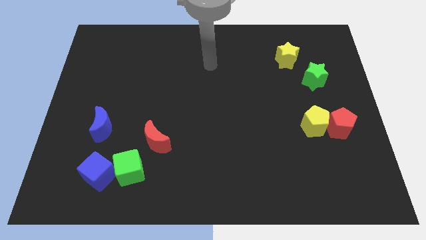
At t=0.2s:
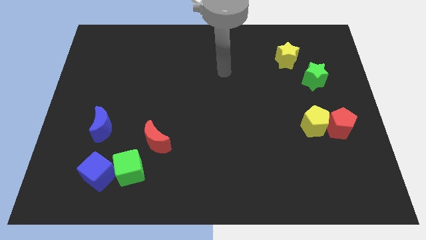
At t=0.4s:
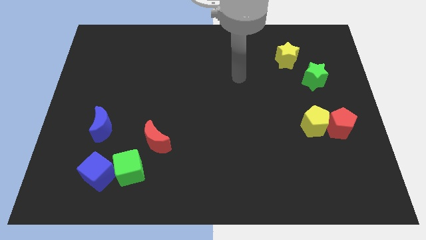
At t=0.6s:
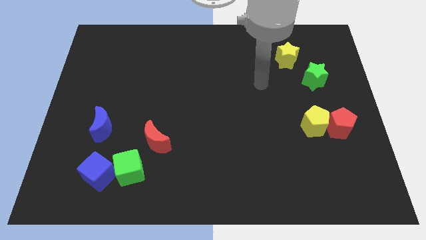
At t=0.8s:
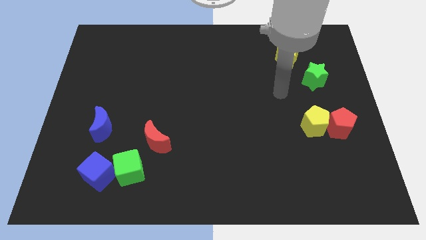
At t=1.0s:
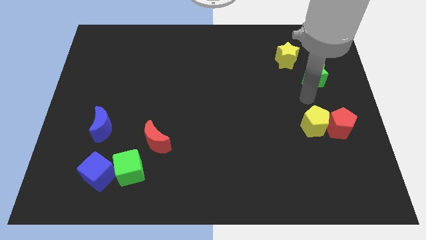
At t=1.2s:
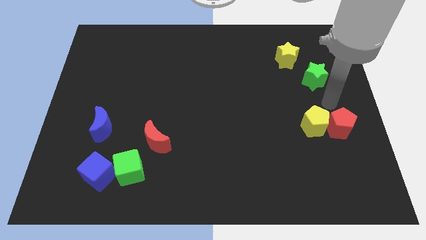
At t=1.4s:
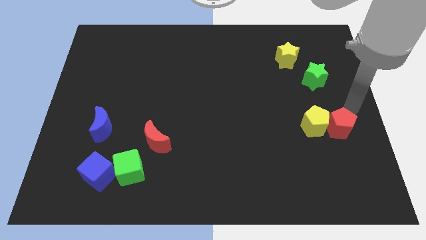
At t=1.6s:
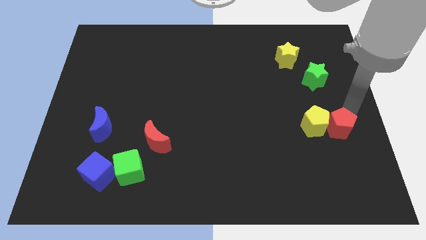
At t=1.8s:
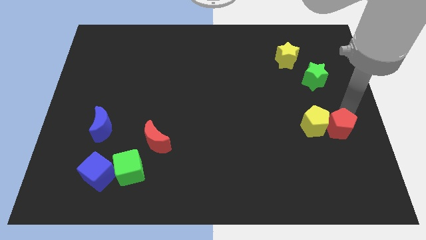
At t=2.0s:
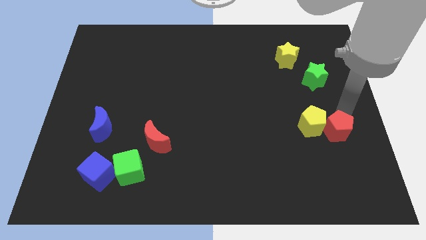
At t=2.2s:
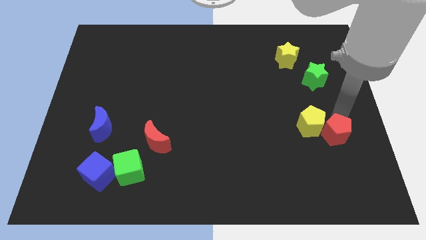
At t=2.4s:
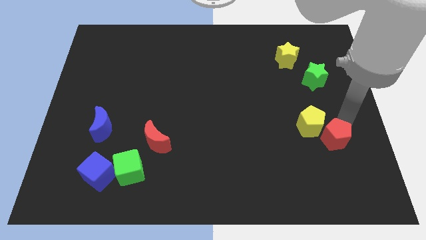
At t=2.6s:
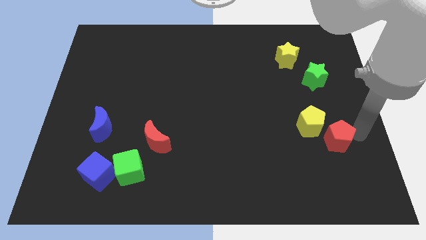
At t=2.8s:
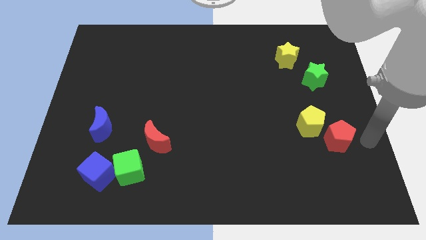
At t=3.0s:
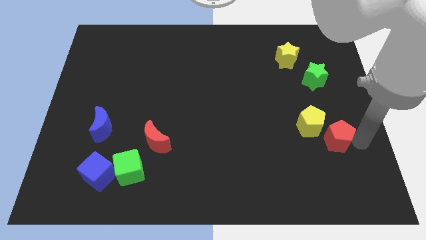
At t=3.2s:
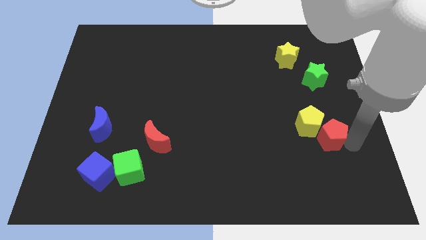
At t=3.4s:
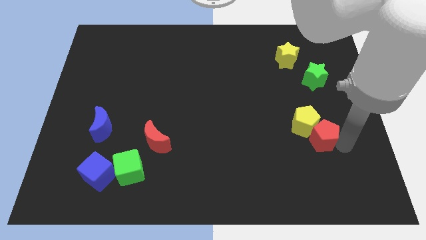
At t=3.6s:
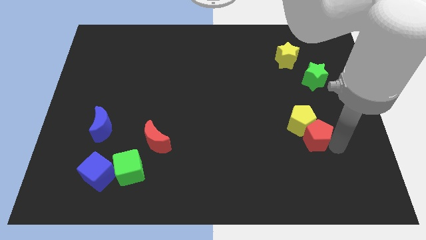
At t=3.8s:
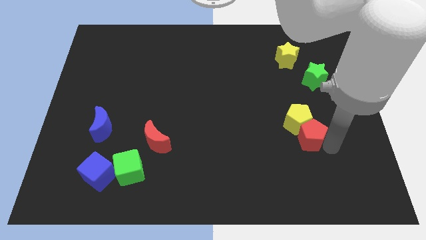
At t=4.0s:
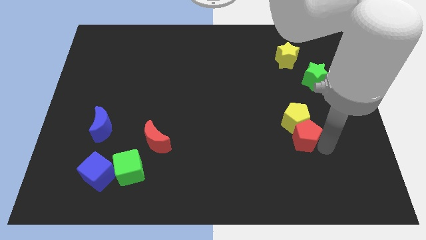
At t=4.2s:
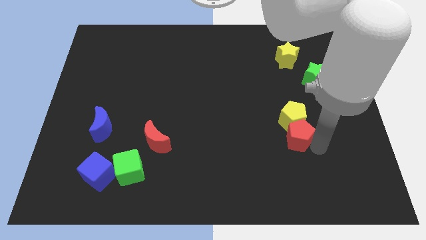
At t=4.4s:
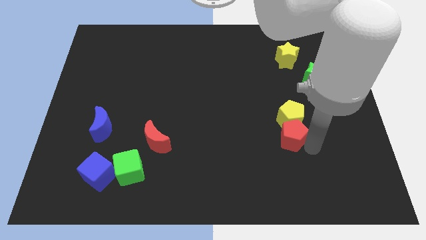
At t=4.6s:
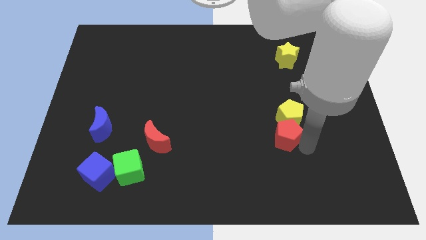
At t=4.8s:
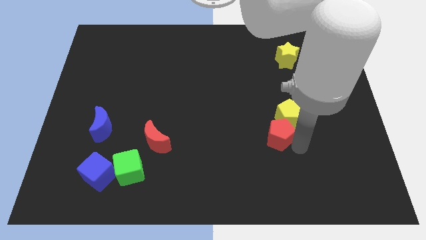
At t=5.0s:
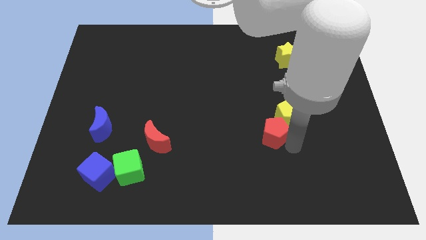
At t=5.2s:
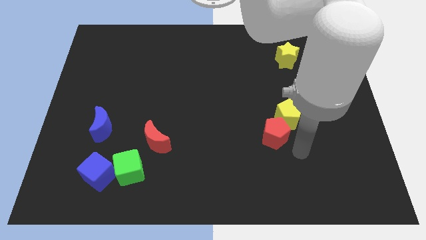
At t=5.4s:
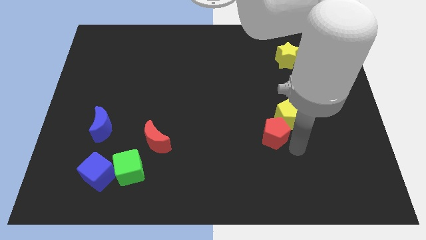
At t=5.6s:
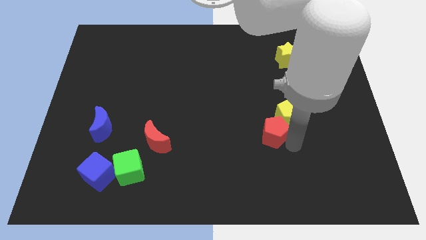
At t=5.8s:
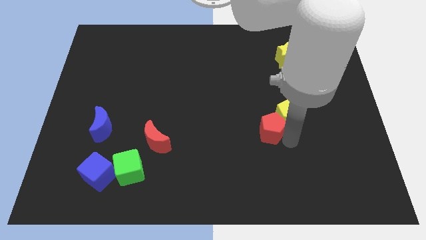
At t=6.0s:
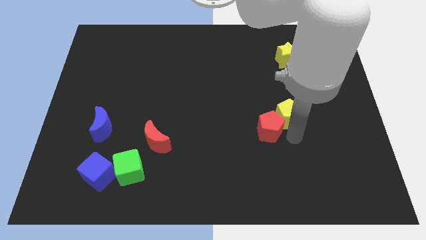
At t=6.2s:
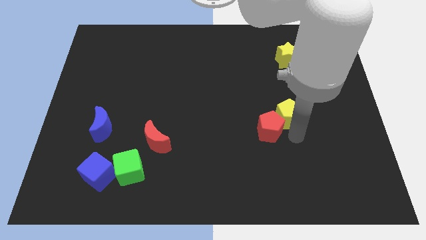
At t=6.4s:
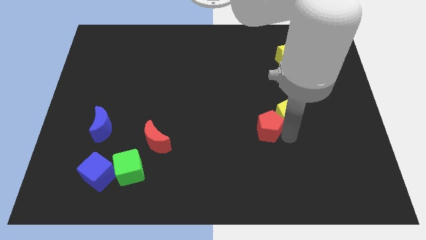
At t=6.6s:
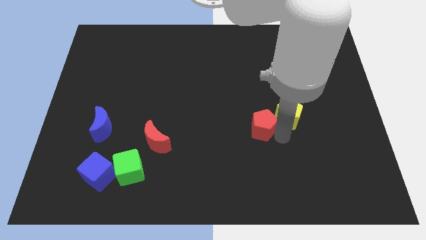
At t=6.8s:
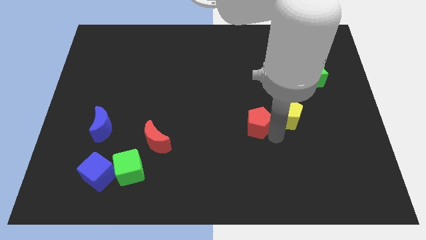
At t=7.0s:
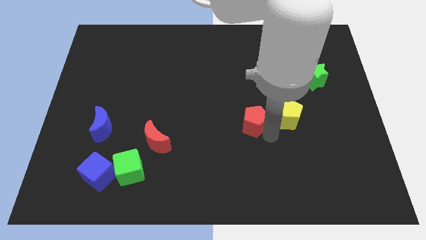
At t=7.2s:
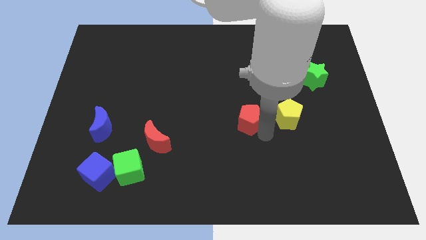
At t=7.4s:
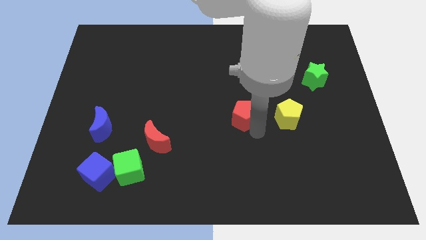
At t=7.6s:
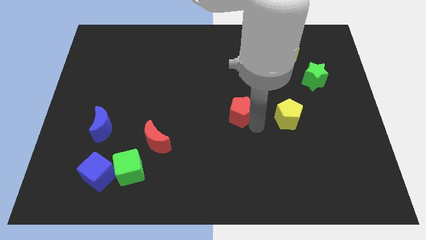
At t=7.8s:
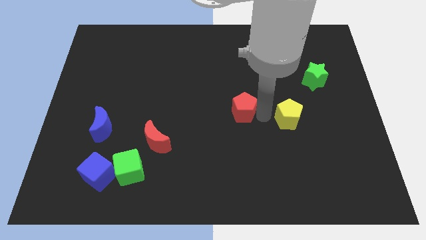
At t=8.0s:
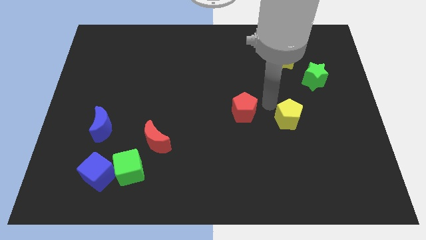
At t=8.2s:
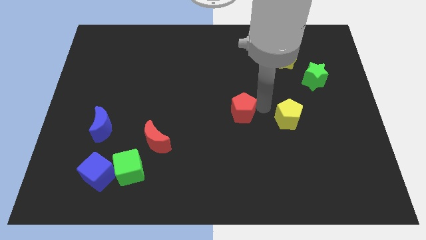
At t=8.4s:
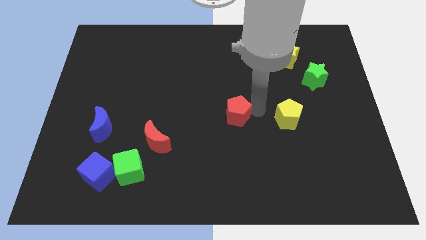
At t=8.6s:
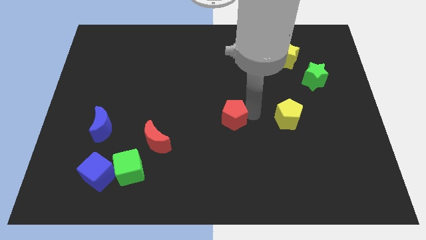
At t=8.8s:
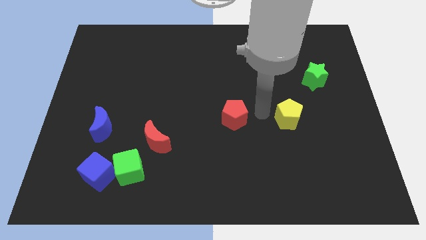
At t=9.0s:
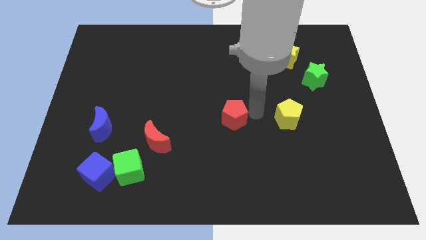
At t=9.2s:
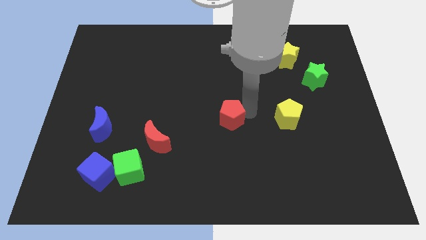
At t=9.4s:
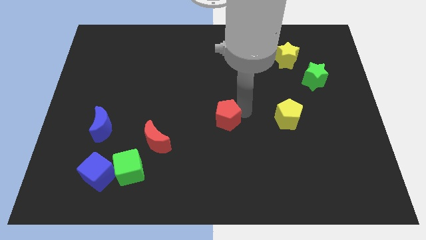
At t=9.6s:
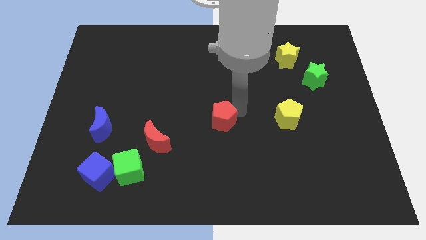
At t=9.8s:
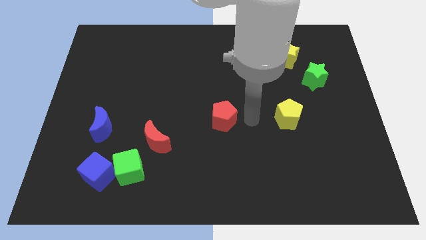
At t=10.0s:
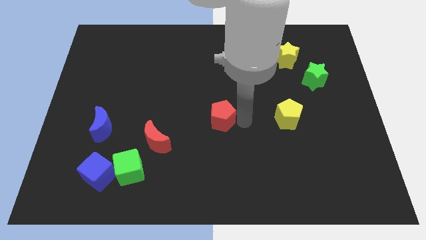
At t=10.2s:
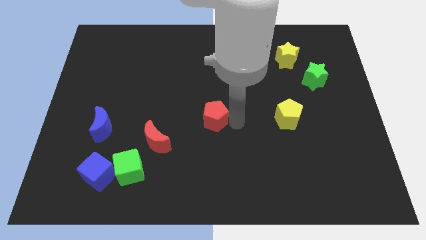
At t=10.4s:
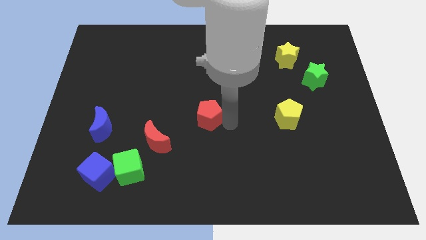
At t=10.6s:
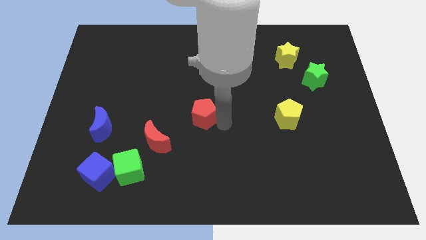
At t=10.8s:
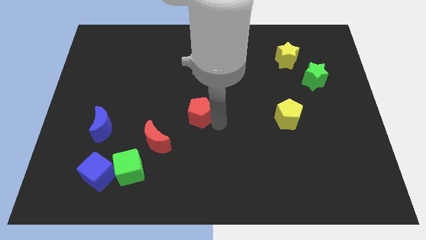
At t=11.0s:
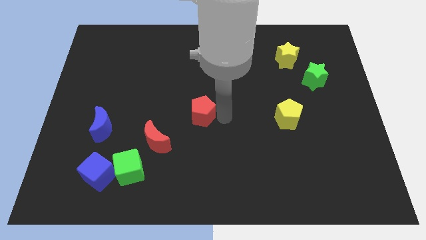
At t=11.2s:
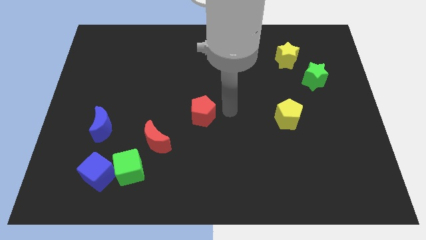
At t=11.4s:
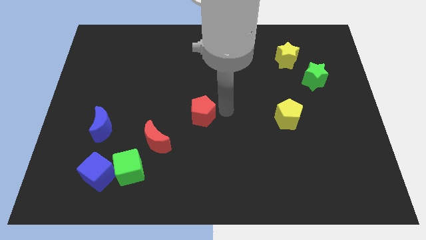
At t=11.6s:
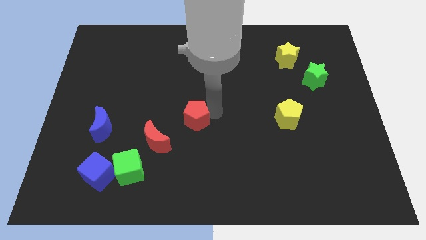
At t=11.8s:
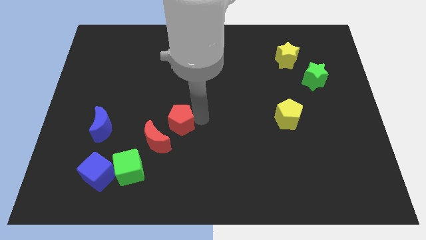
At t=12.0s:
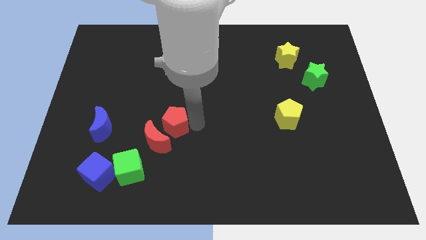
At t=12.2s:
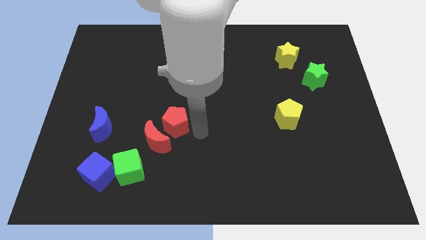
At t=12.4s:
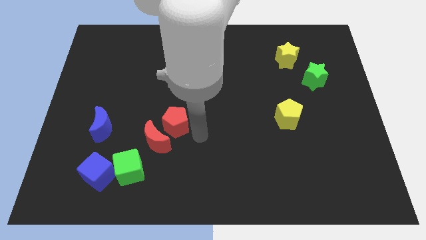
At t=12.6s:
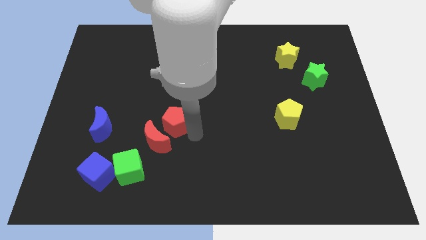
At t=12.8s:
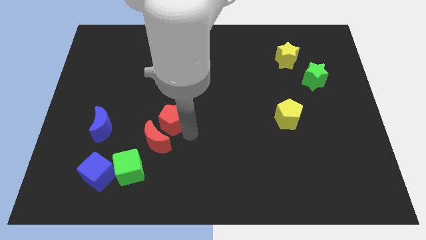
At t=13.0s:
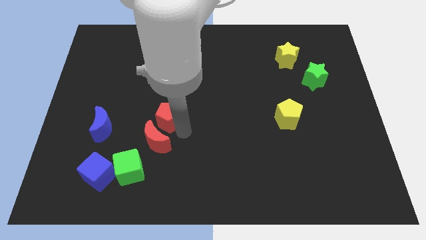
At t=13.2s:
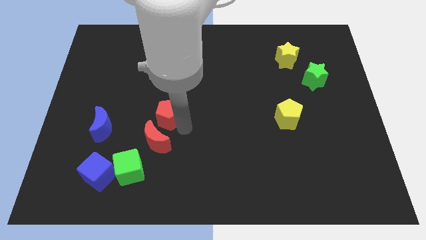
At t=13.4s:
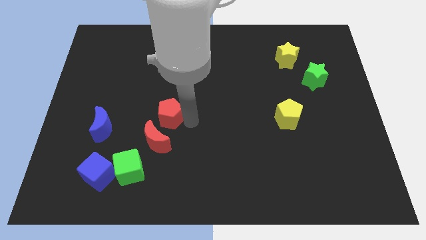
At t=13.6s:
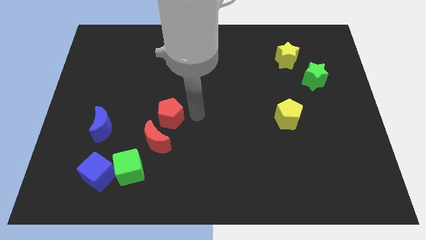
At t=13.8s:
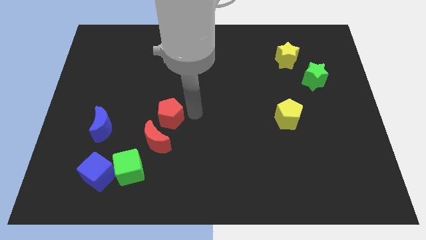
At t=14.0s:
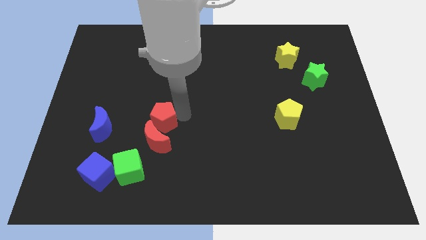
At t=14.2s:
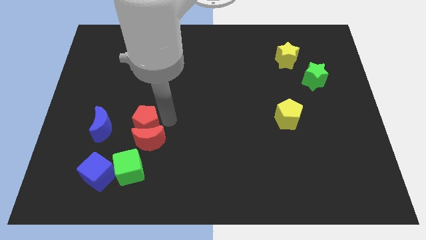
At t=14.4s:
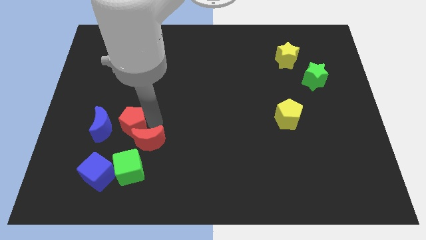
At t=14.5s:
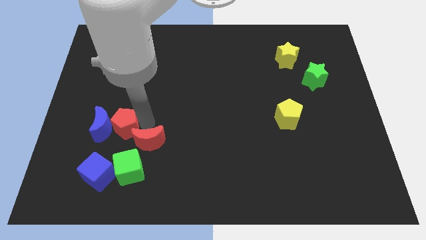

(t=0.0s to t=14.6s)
slide the red pentagon towards the blue moon
